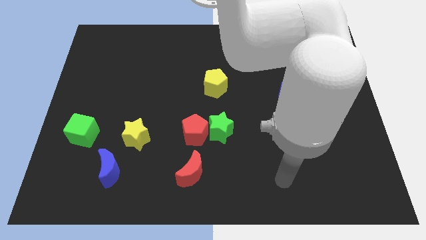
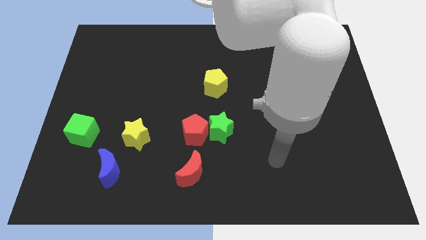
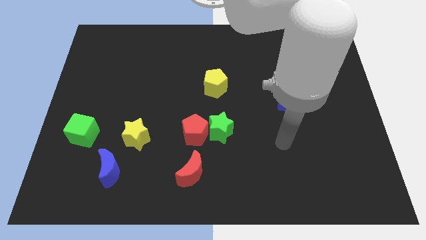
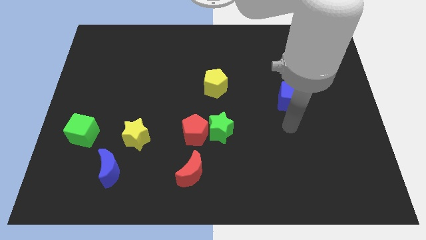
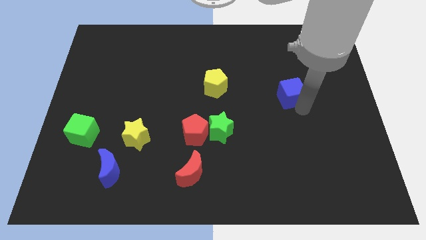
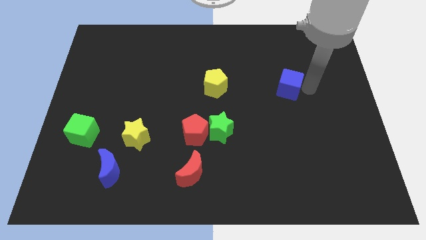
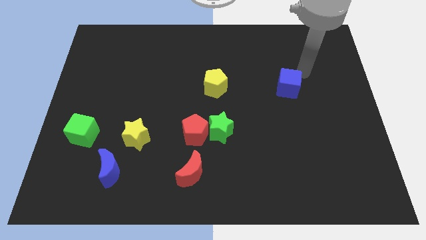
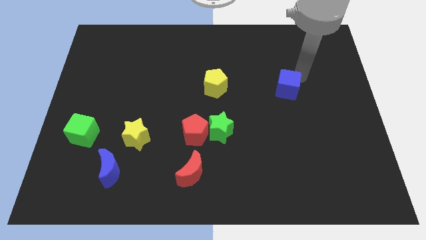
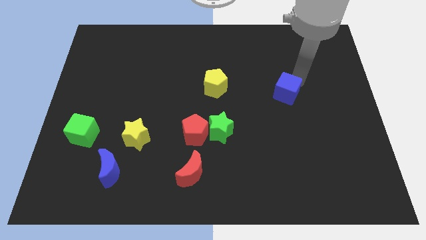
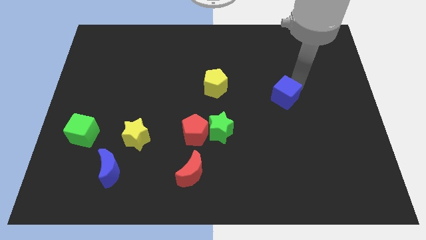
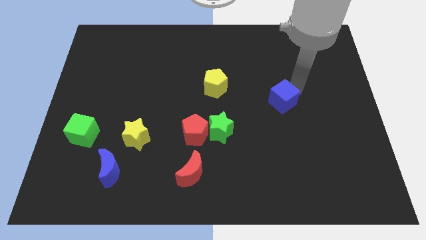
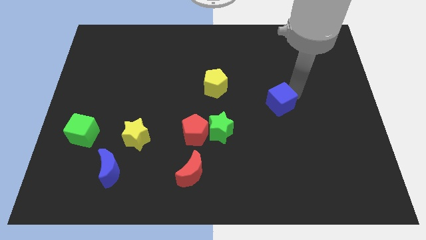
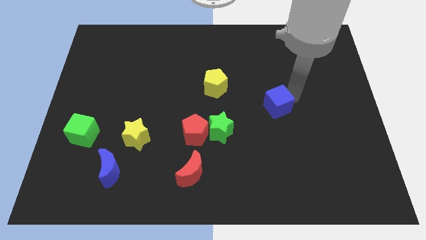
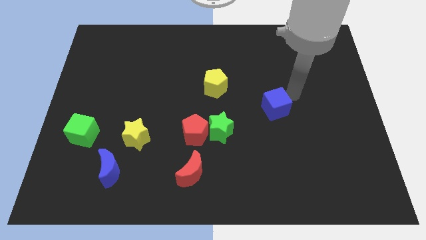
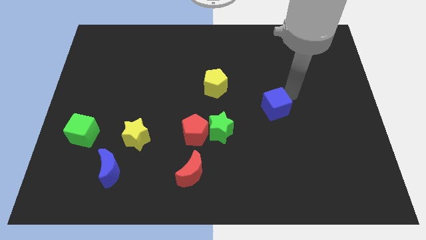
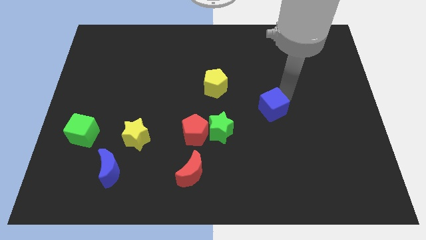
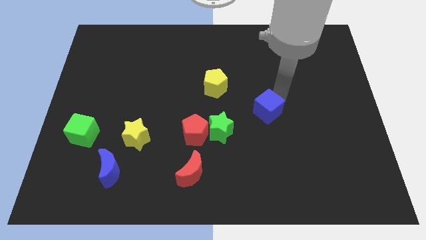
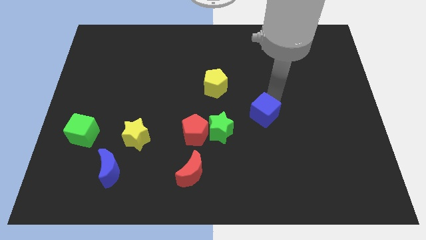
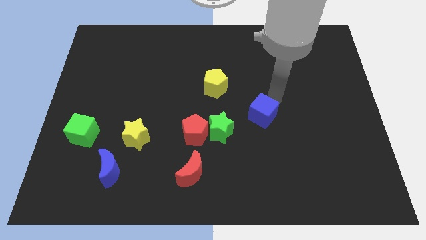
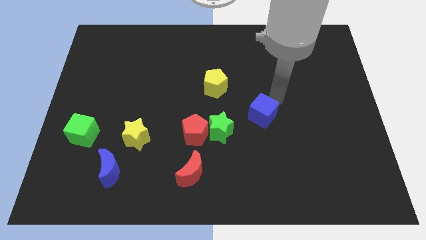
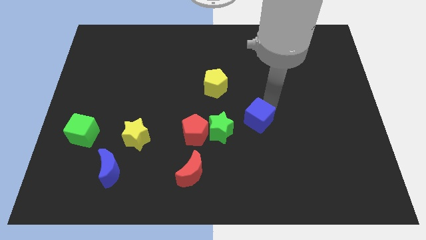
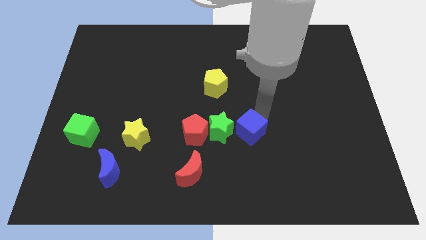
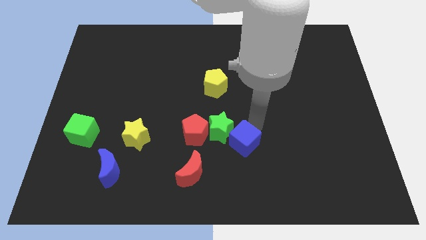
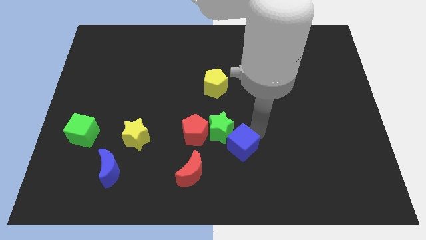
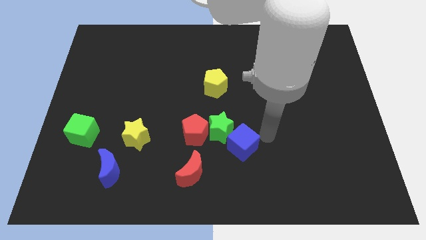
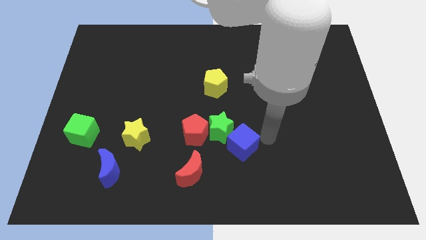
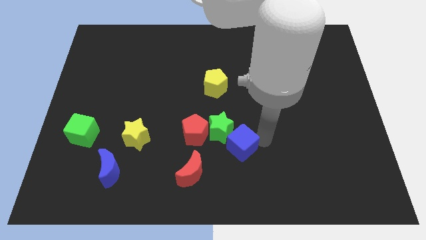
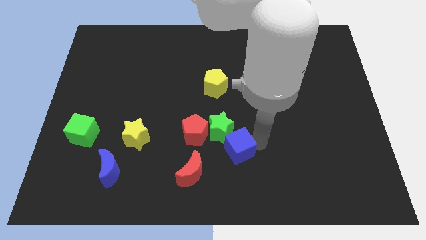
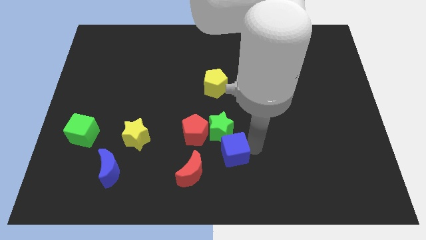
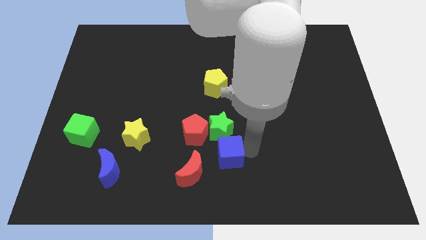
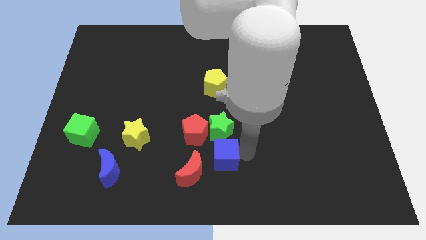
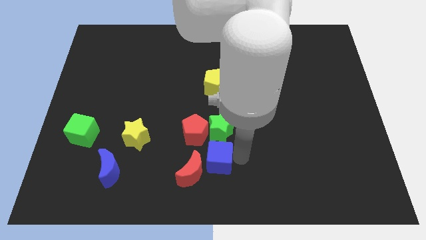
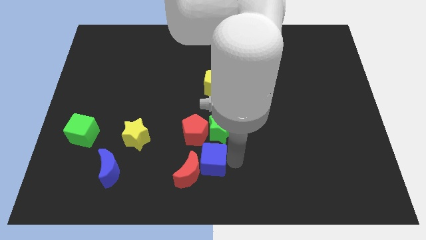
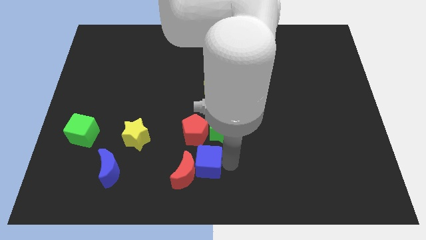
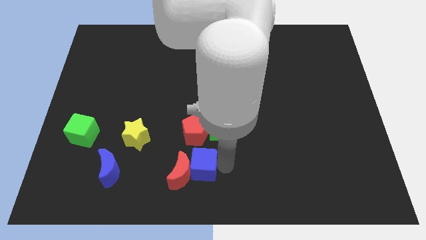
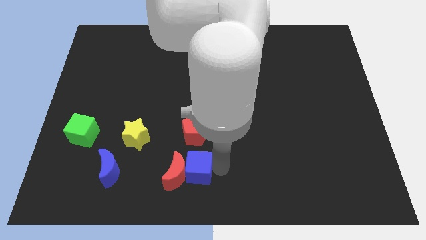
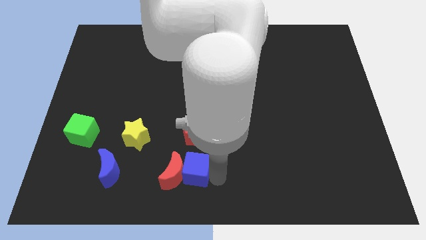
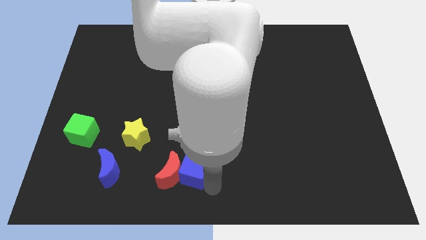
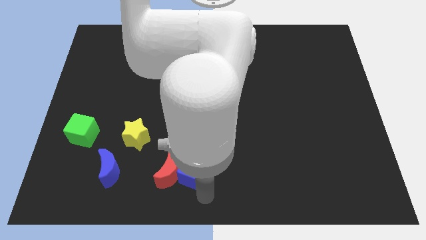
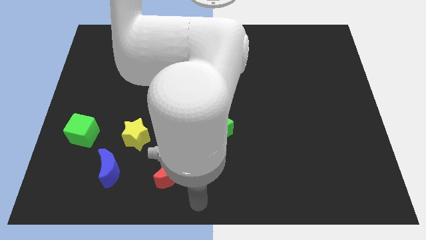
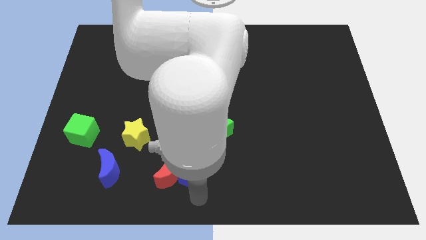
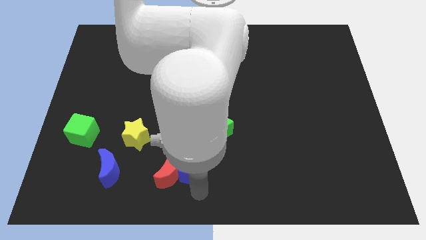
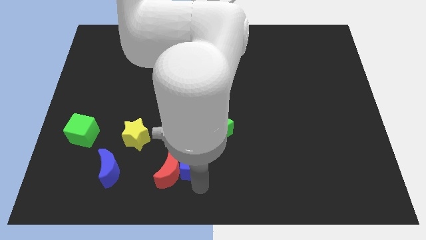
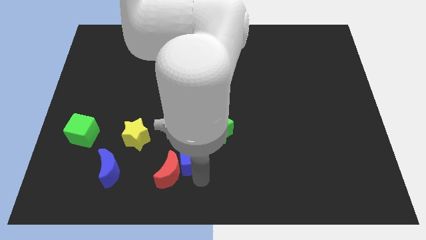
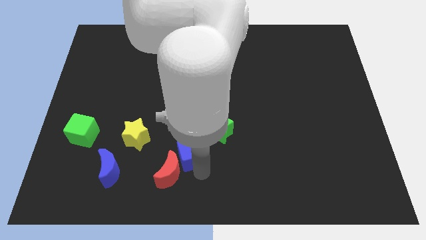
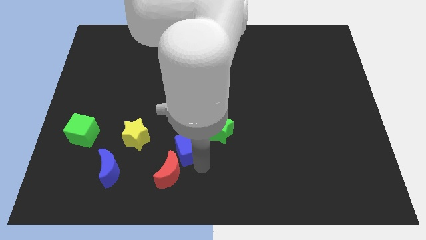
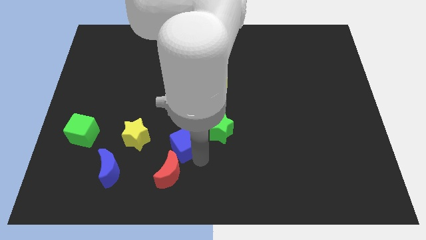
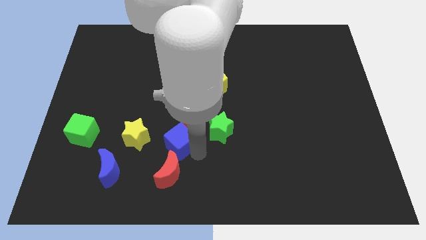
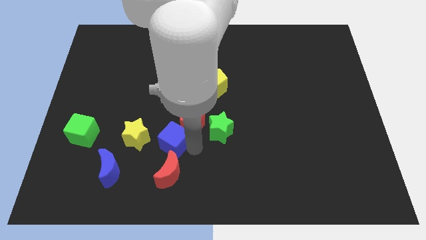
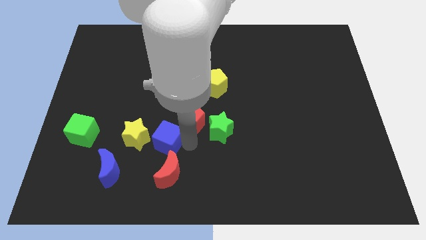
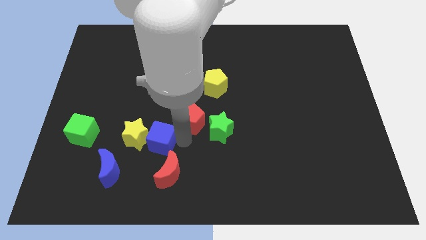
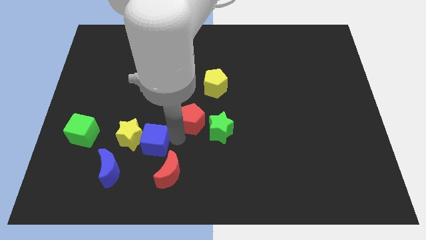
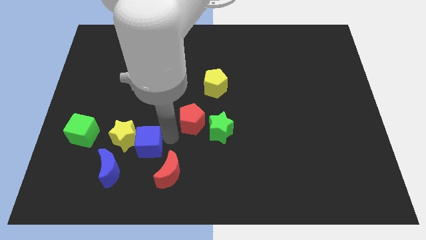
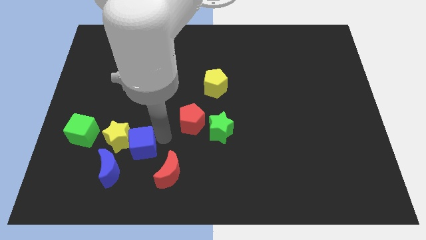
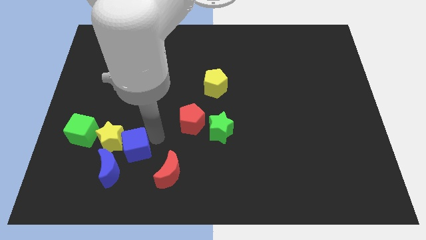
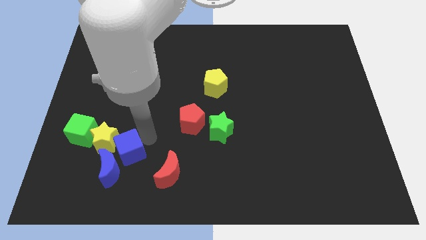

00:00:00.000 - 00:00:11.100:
slide the blue cube to the right of the blue moon

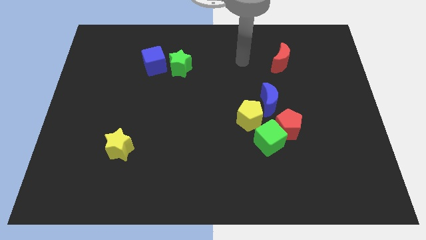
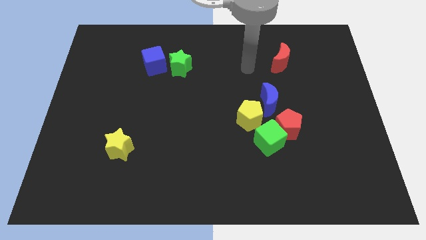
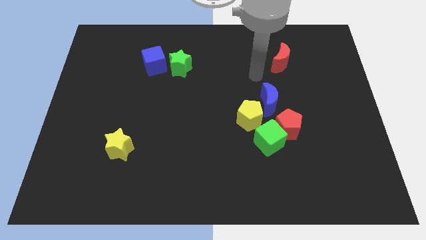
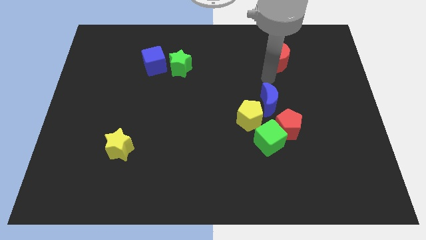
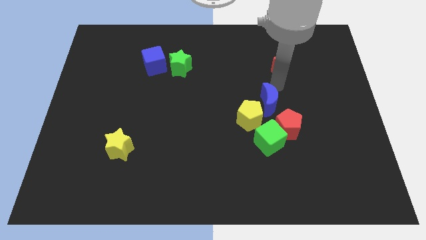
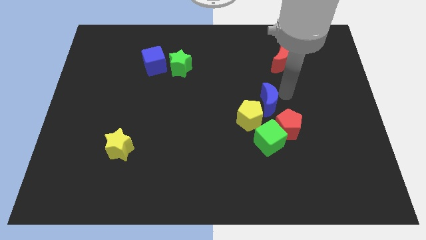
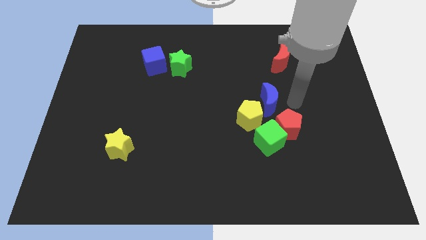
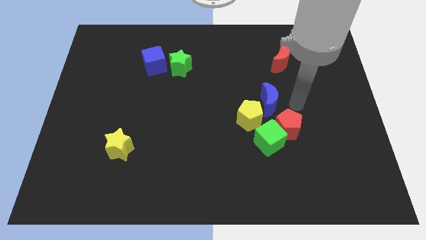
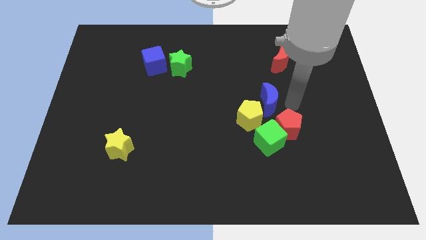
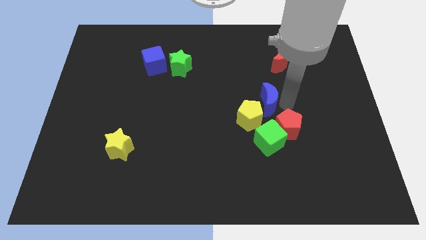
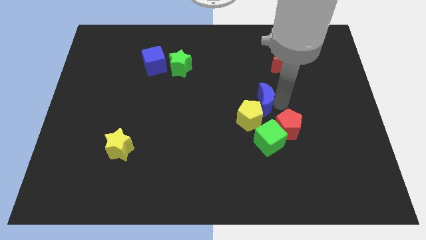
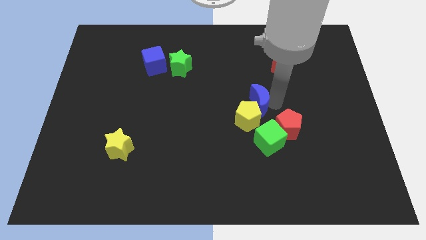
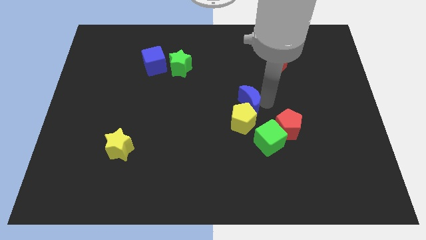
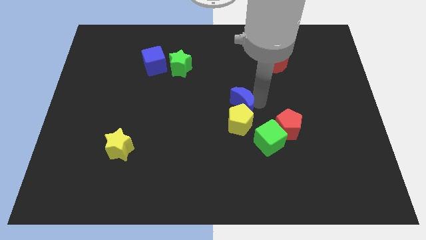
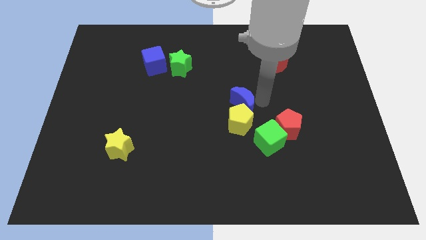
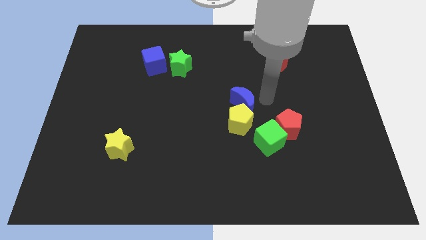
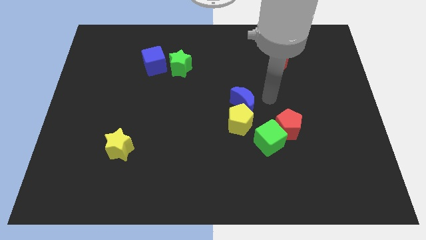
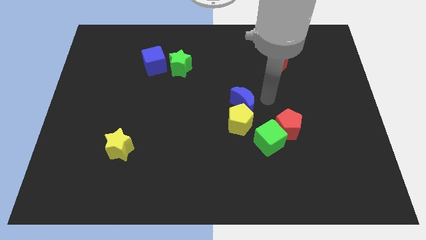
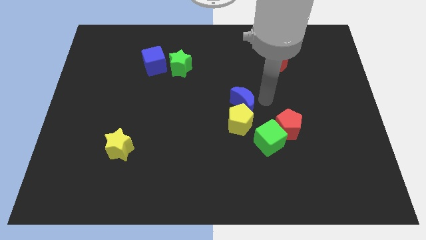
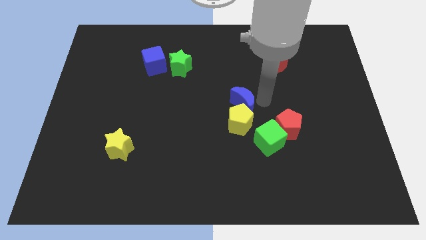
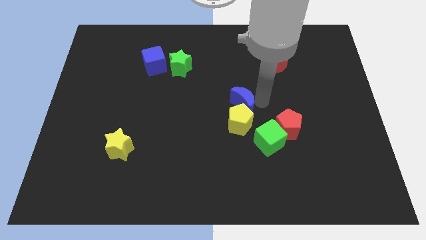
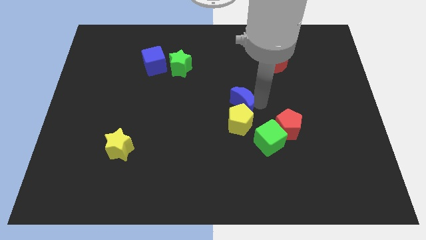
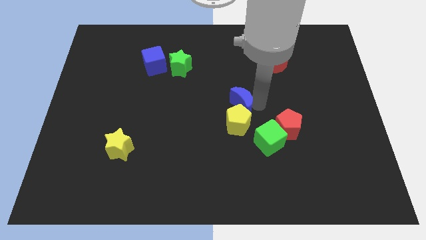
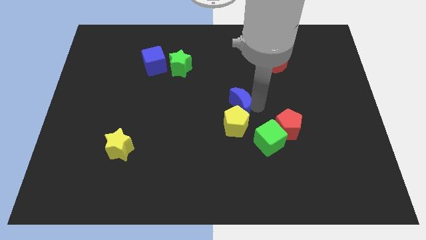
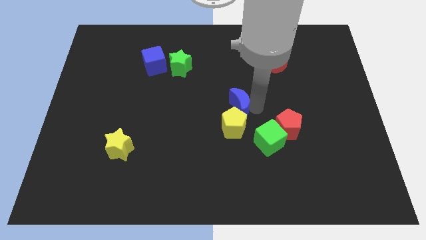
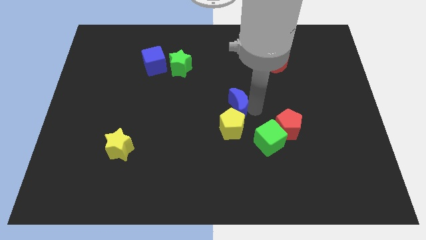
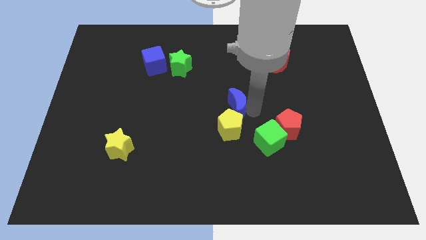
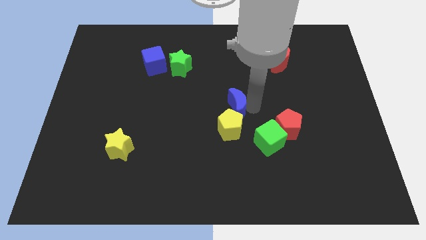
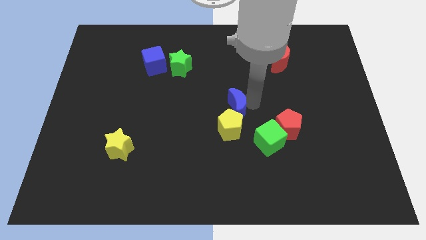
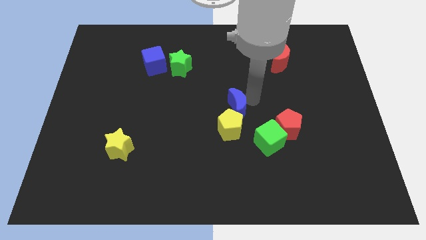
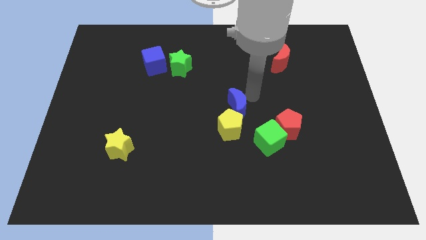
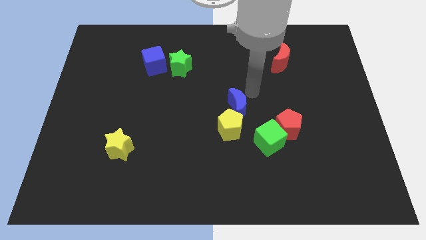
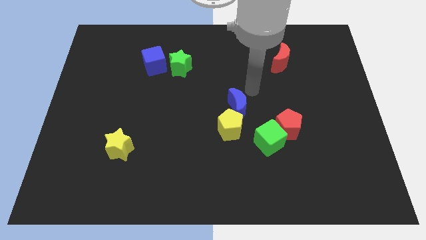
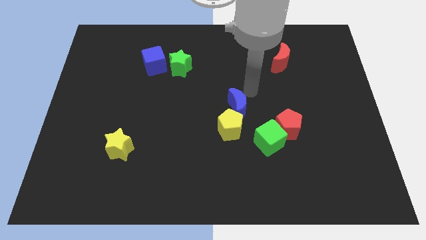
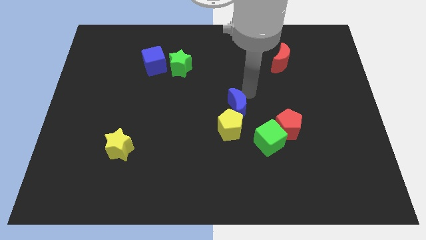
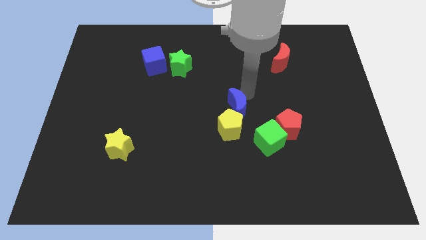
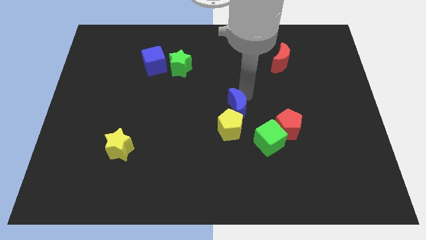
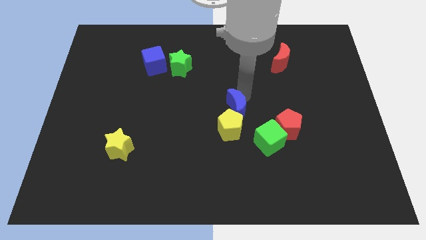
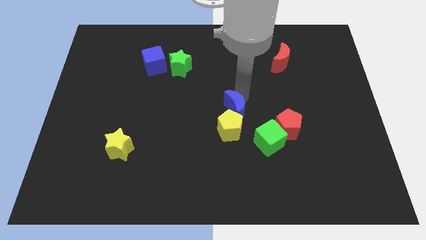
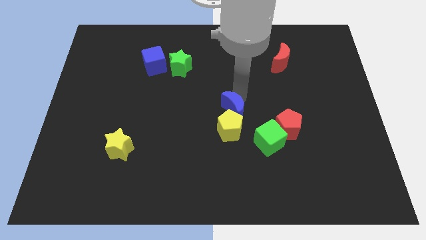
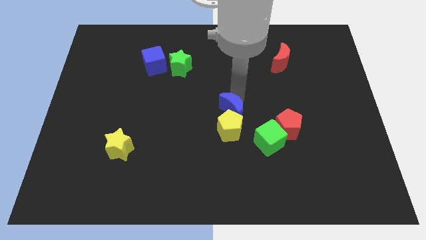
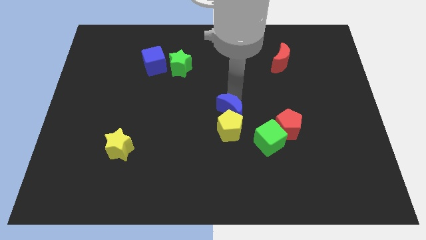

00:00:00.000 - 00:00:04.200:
move the blue moon to the left of the red pentagon
